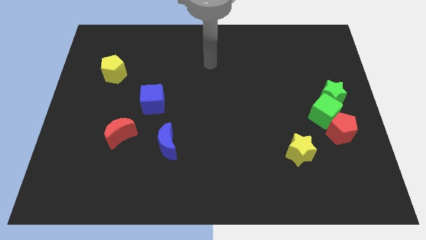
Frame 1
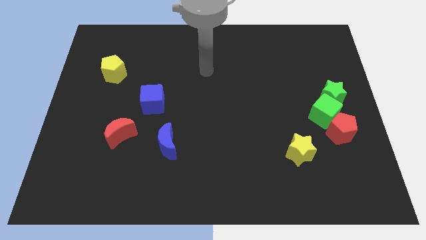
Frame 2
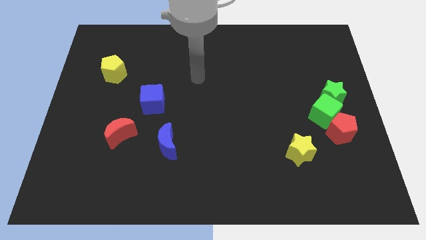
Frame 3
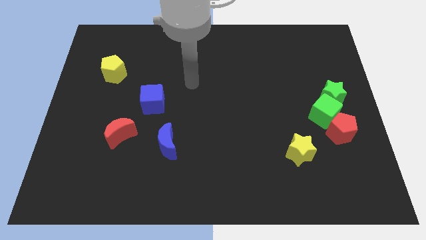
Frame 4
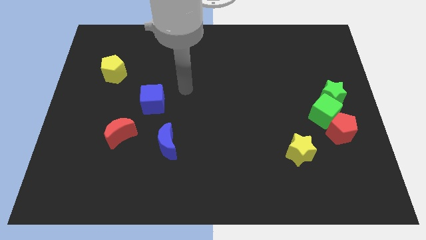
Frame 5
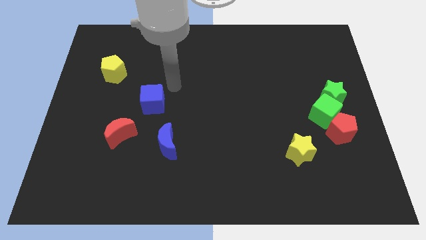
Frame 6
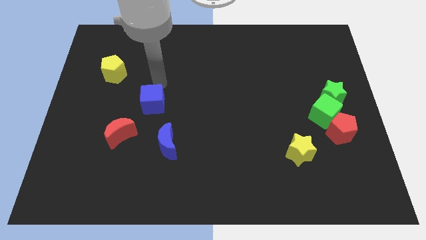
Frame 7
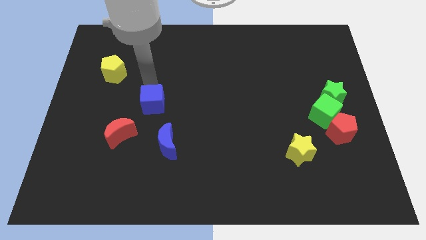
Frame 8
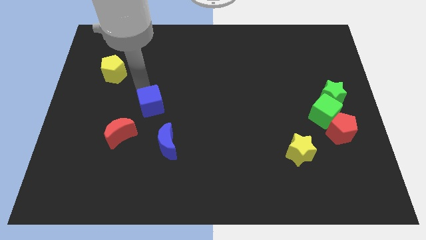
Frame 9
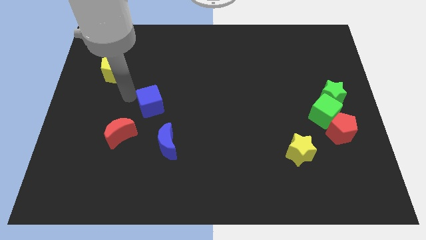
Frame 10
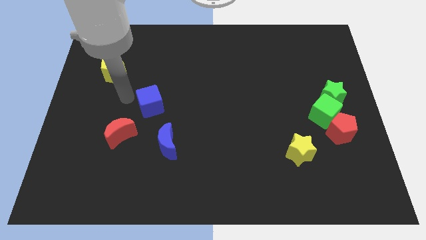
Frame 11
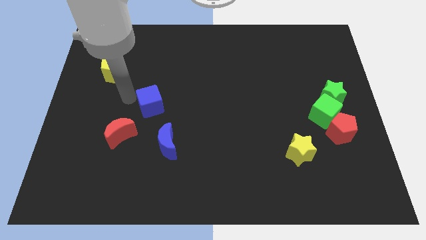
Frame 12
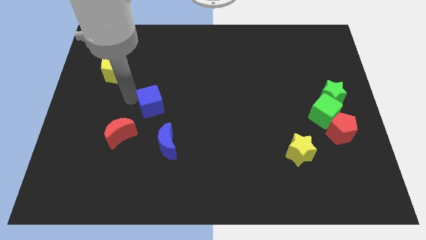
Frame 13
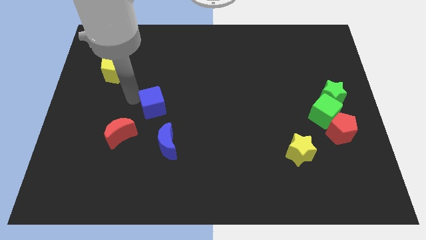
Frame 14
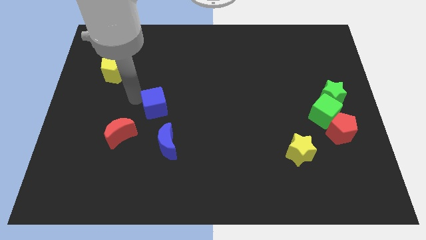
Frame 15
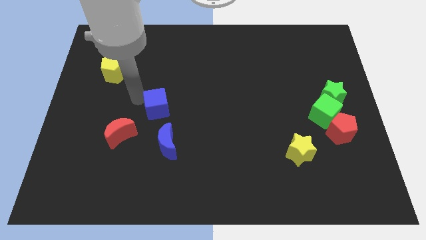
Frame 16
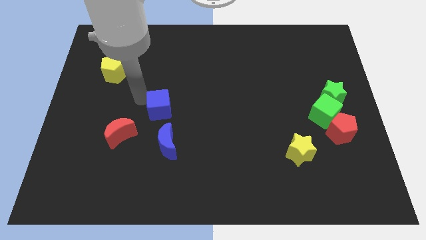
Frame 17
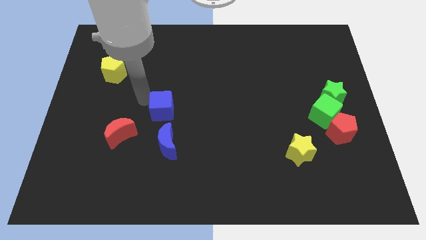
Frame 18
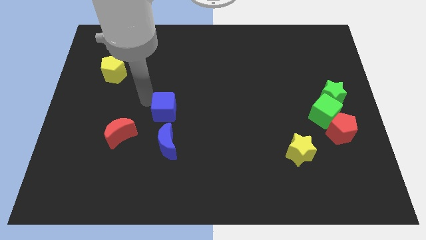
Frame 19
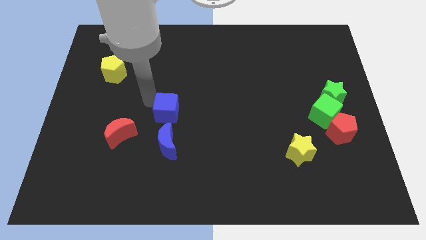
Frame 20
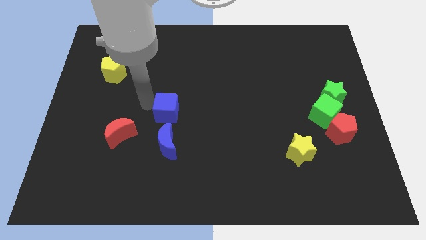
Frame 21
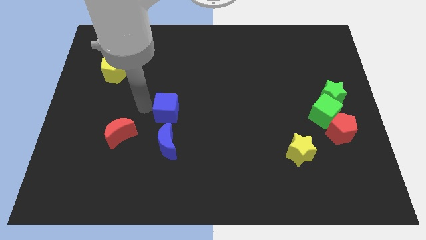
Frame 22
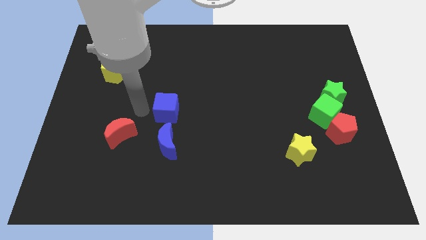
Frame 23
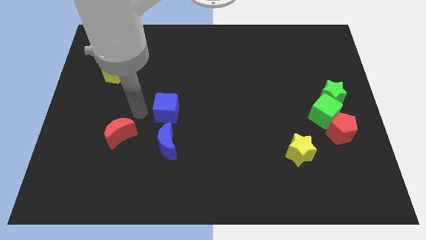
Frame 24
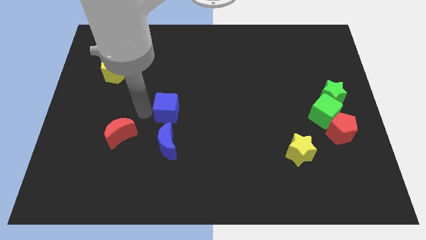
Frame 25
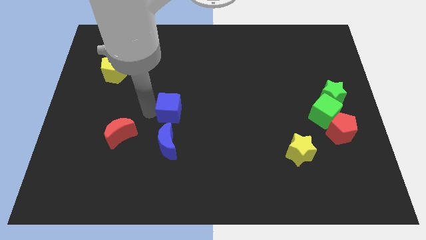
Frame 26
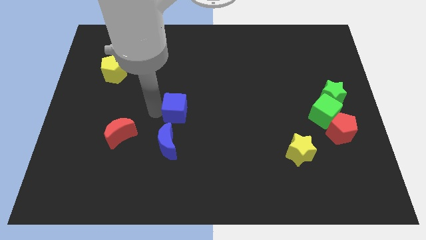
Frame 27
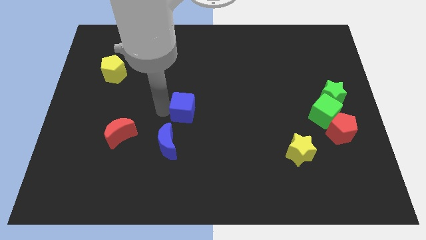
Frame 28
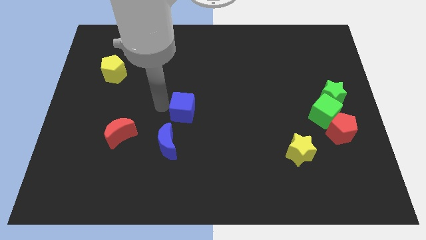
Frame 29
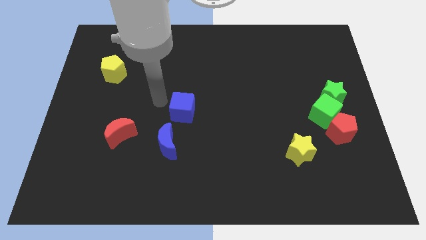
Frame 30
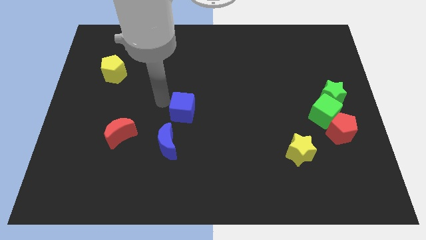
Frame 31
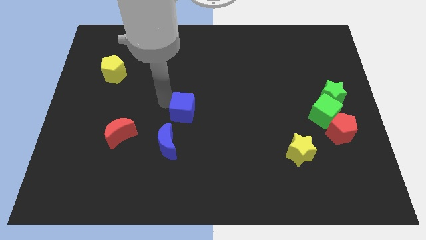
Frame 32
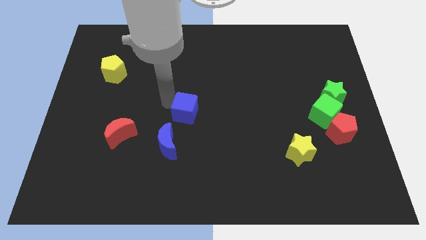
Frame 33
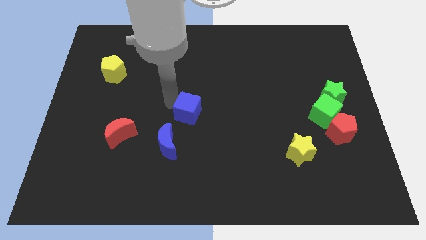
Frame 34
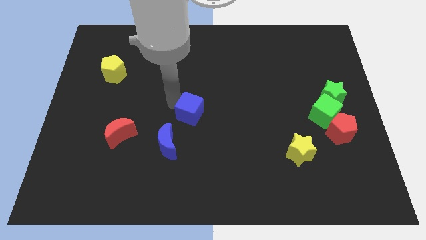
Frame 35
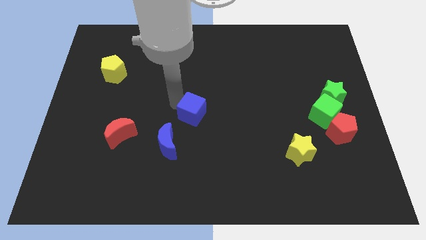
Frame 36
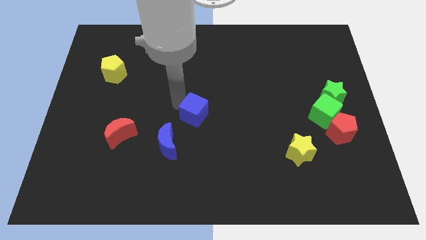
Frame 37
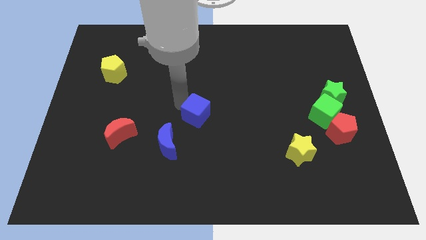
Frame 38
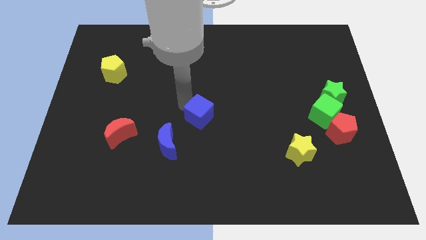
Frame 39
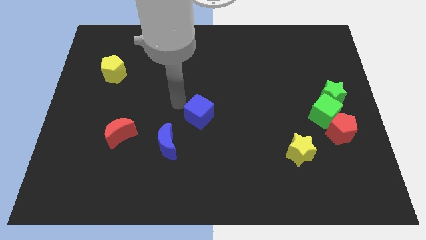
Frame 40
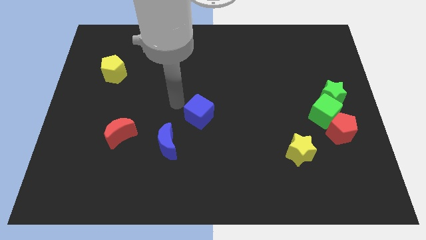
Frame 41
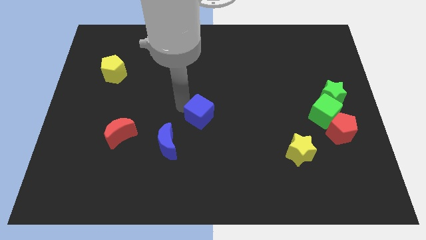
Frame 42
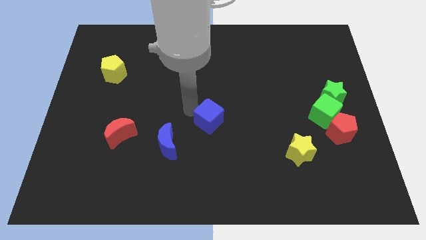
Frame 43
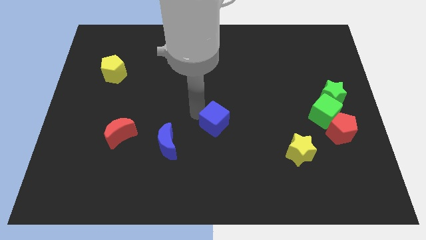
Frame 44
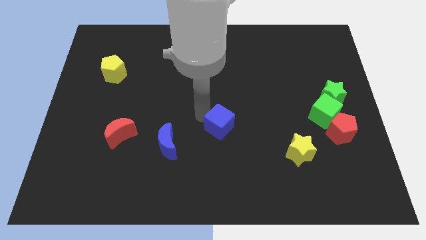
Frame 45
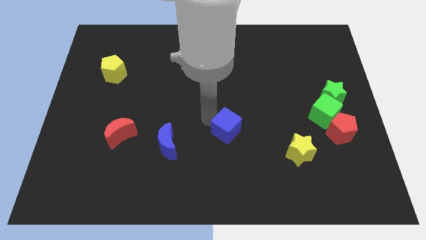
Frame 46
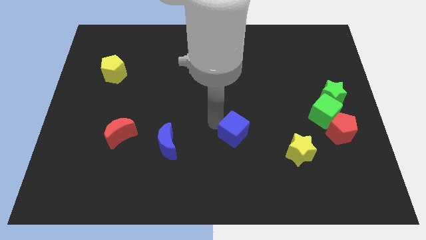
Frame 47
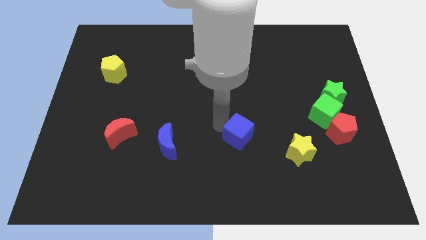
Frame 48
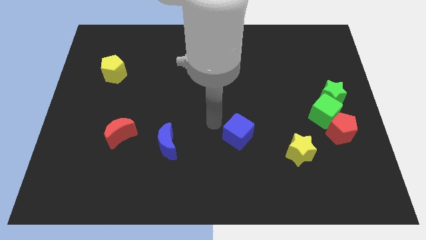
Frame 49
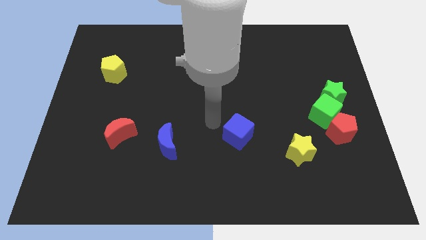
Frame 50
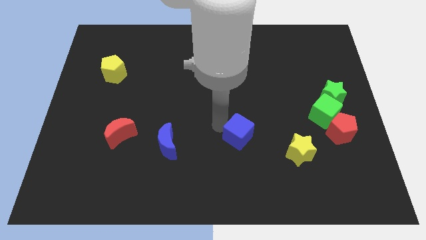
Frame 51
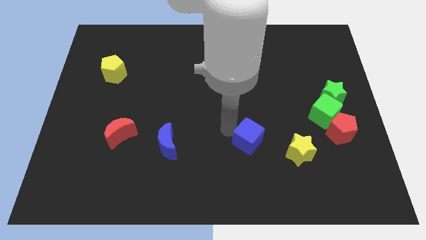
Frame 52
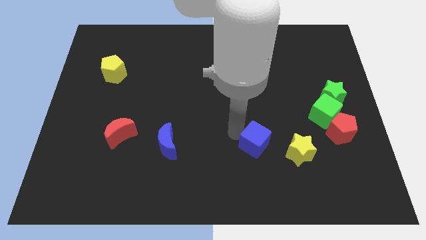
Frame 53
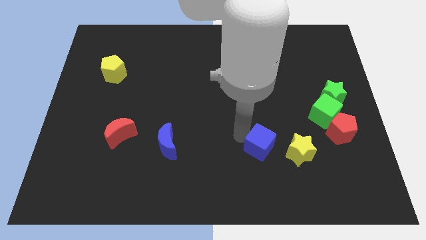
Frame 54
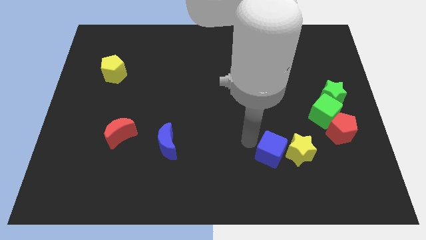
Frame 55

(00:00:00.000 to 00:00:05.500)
put the blue cube next to the yellow star

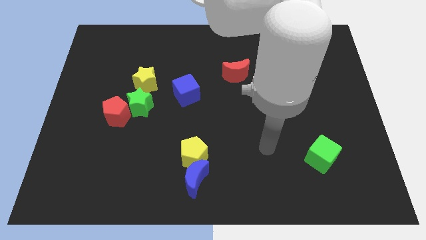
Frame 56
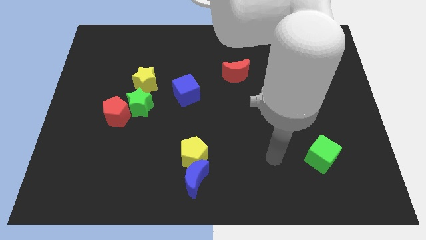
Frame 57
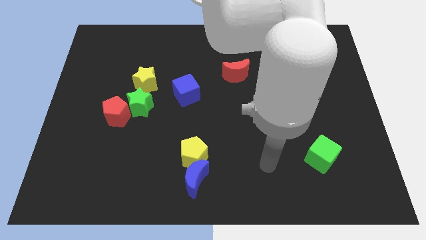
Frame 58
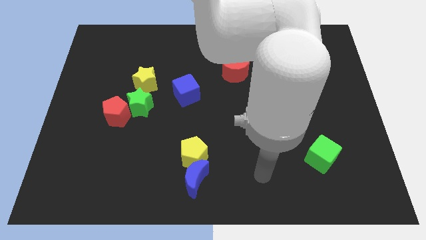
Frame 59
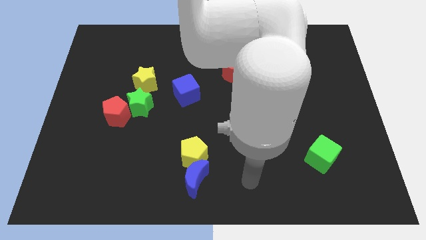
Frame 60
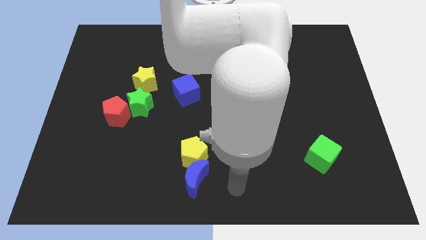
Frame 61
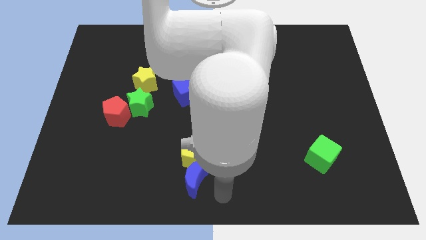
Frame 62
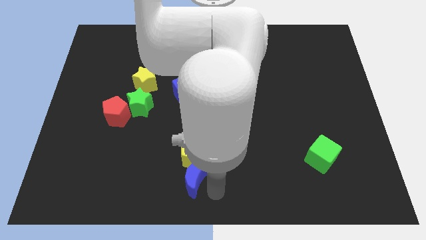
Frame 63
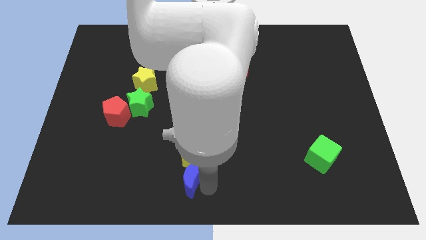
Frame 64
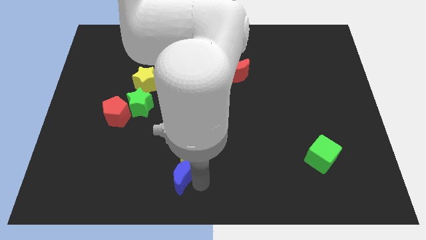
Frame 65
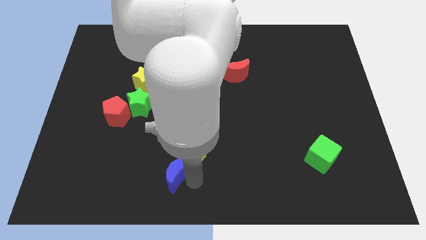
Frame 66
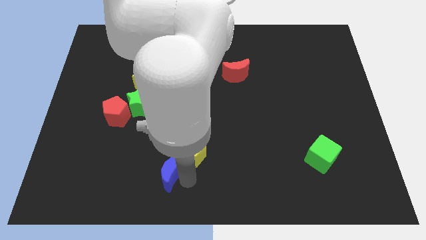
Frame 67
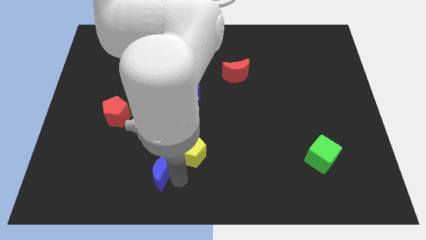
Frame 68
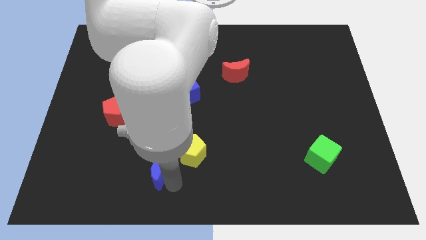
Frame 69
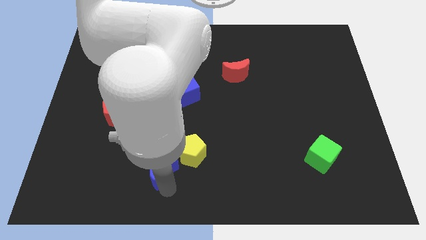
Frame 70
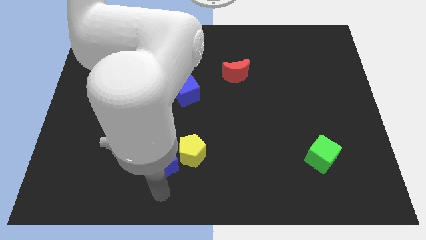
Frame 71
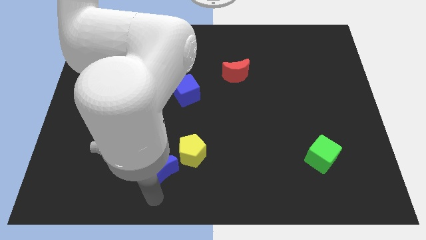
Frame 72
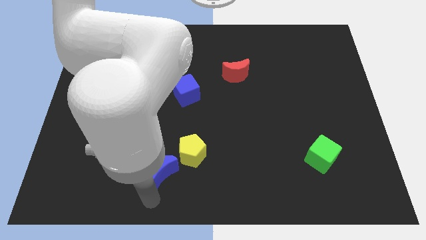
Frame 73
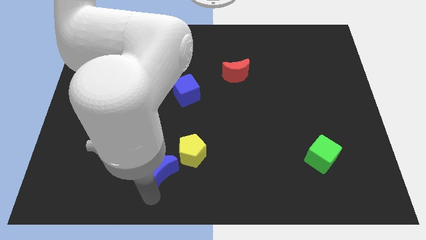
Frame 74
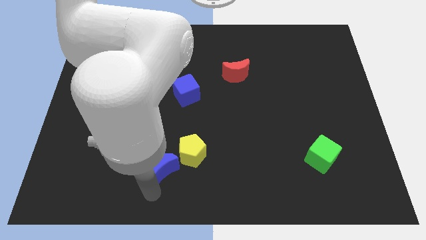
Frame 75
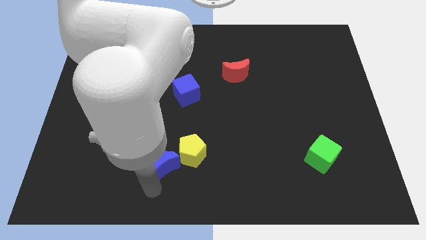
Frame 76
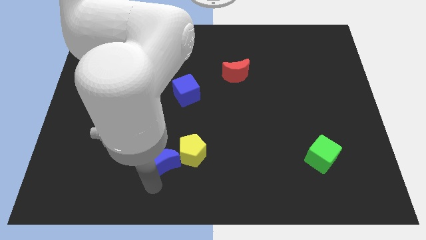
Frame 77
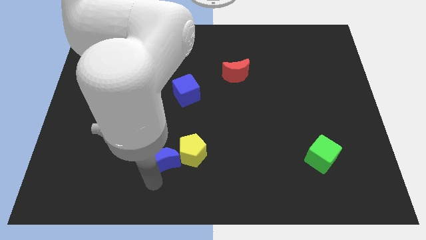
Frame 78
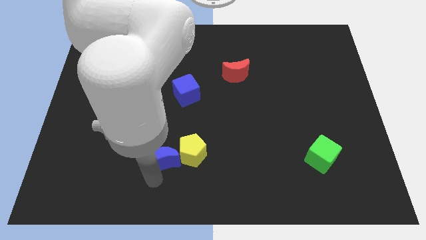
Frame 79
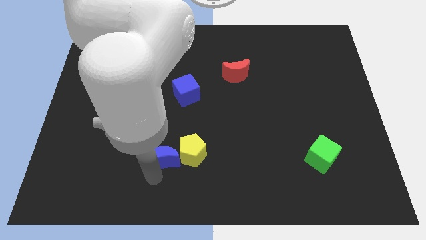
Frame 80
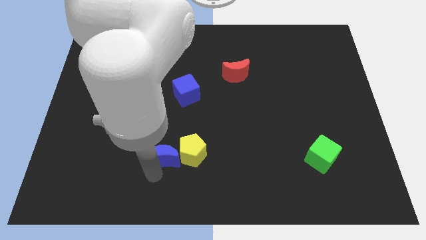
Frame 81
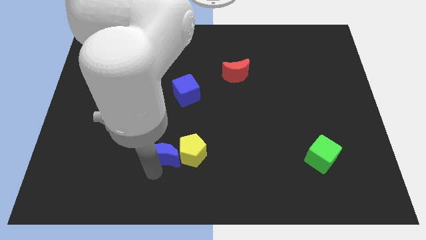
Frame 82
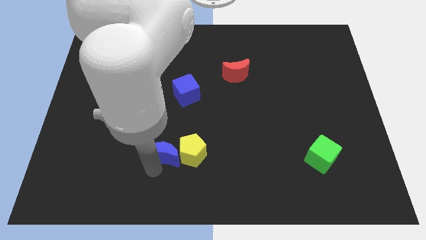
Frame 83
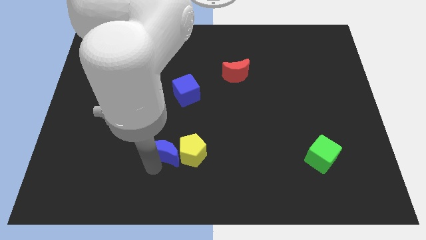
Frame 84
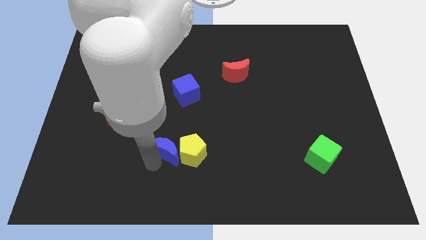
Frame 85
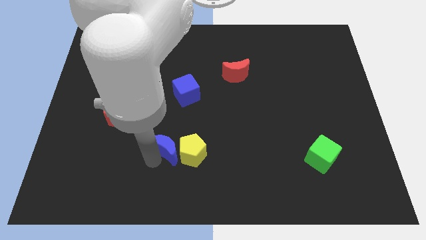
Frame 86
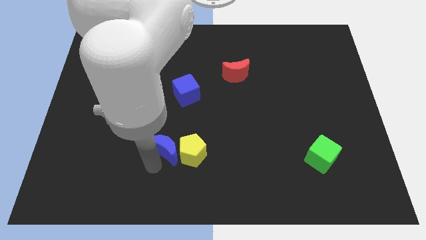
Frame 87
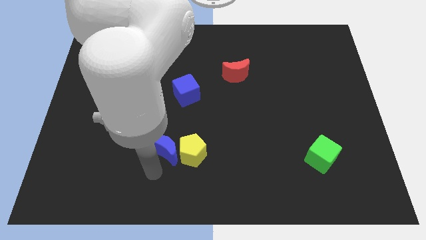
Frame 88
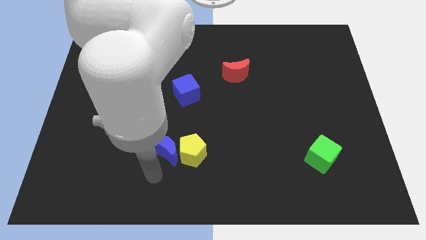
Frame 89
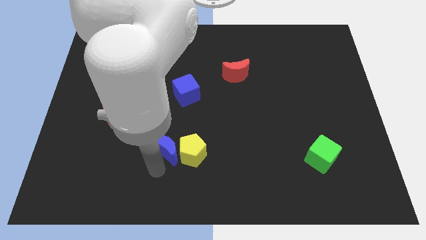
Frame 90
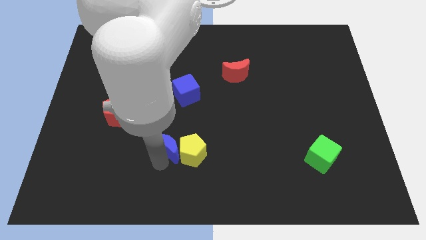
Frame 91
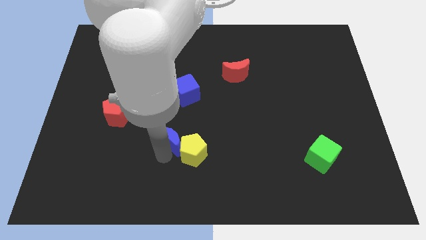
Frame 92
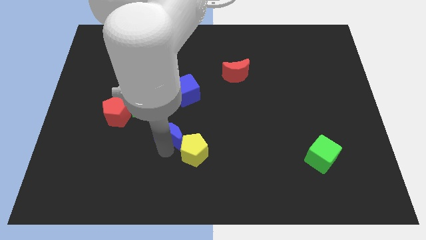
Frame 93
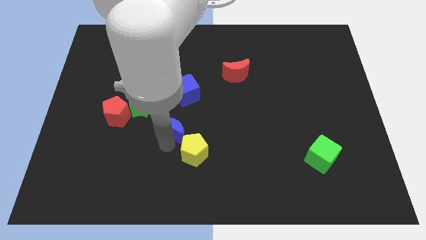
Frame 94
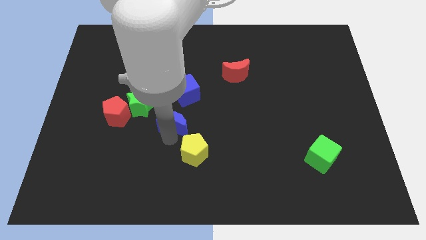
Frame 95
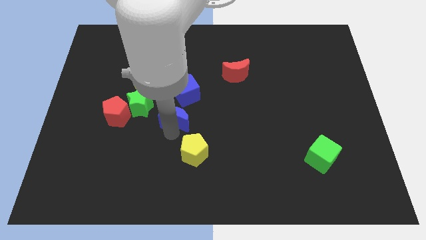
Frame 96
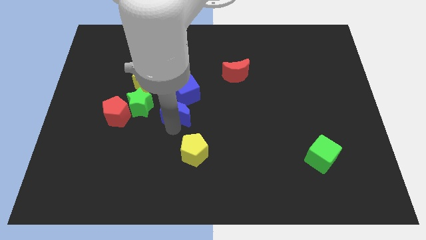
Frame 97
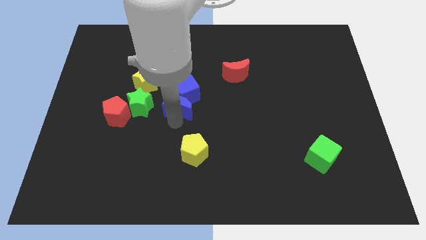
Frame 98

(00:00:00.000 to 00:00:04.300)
move the blue moon towards the blue cube
